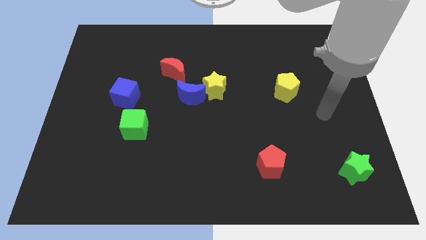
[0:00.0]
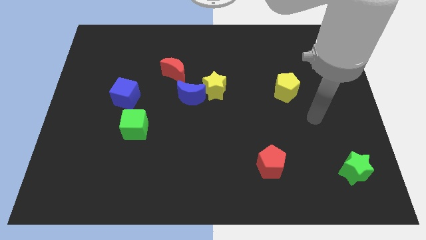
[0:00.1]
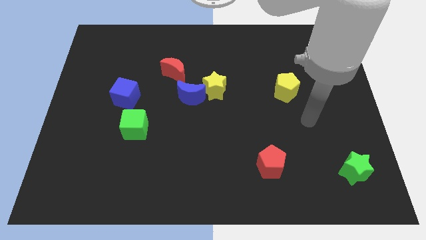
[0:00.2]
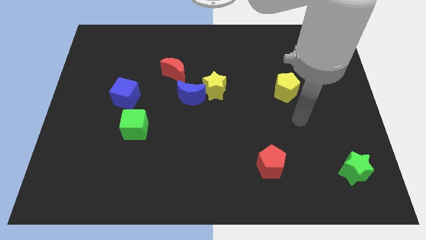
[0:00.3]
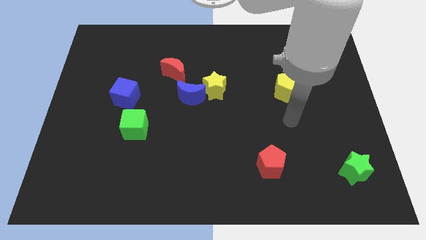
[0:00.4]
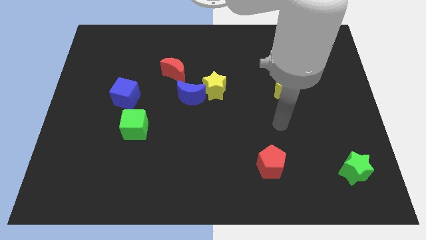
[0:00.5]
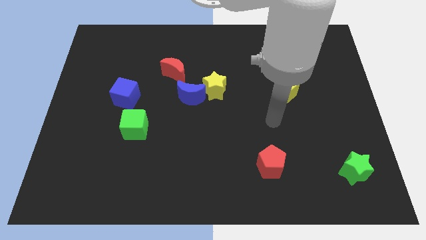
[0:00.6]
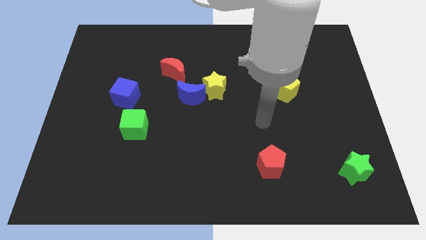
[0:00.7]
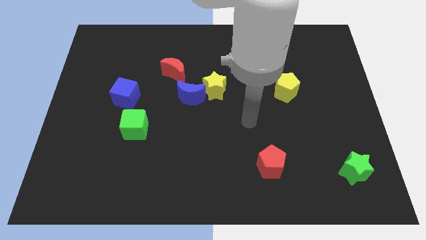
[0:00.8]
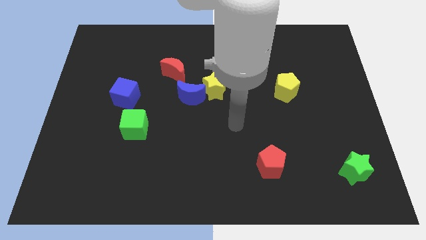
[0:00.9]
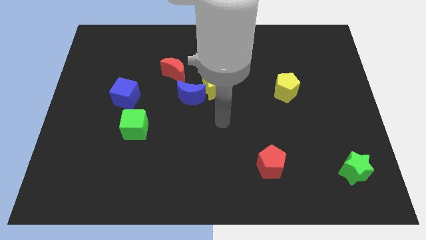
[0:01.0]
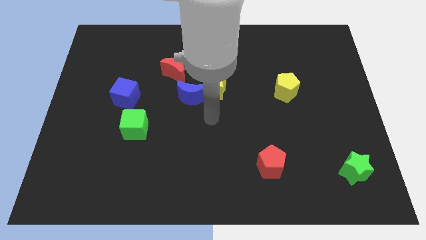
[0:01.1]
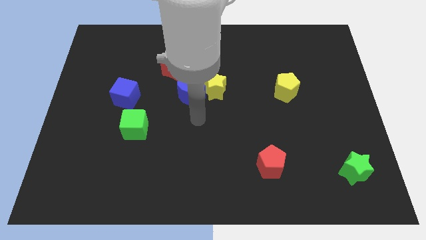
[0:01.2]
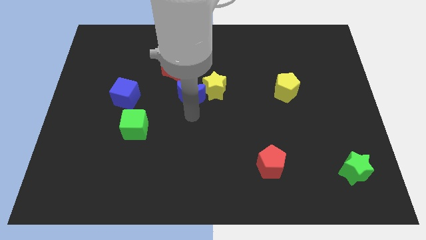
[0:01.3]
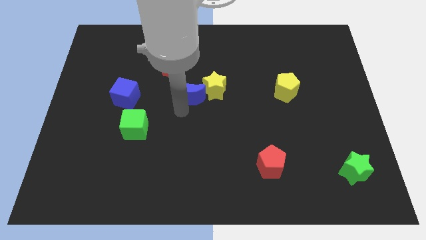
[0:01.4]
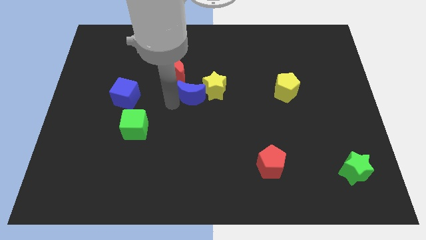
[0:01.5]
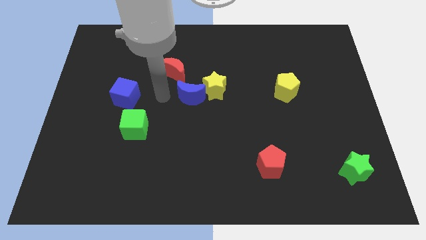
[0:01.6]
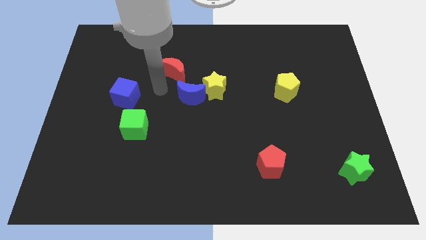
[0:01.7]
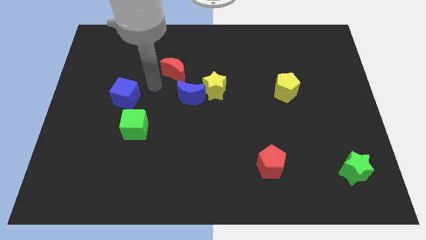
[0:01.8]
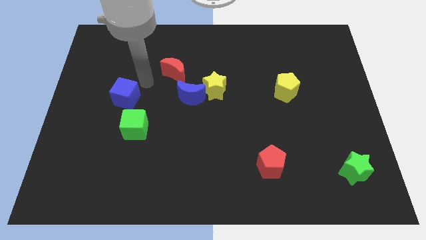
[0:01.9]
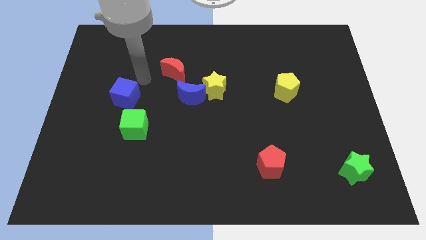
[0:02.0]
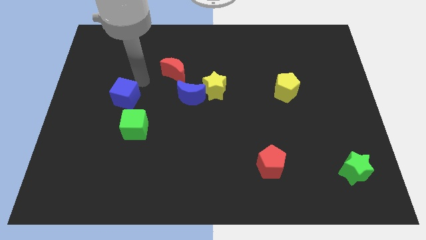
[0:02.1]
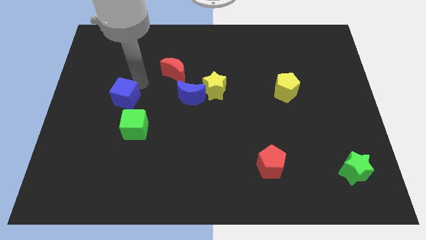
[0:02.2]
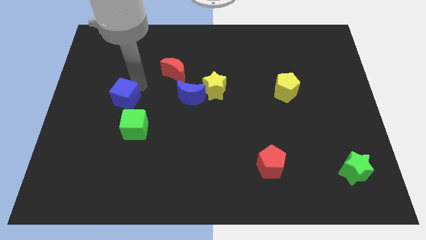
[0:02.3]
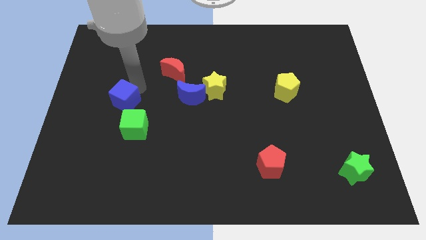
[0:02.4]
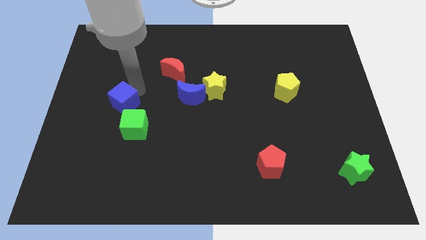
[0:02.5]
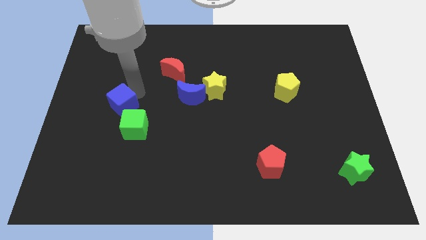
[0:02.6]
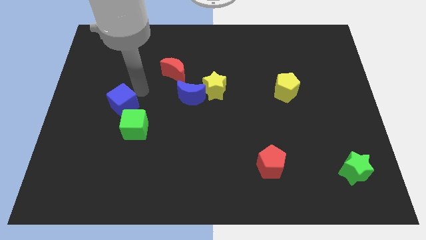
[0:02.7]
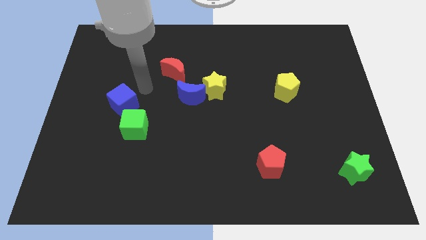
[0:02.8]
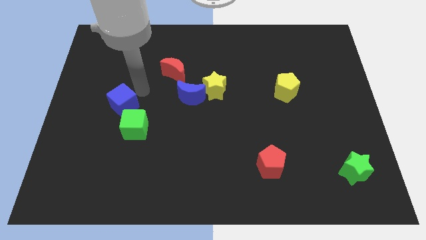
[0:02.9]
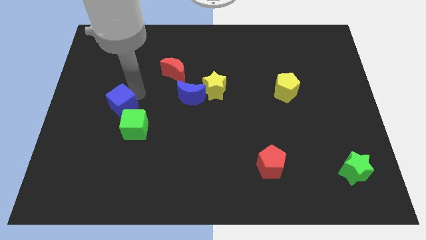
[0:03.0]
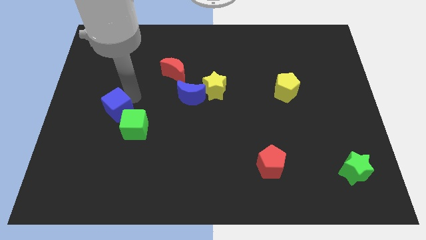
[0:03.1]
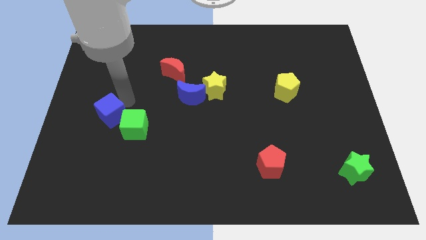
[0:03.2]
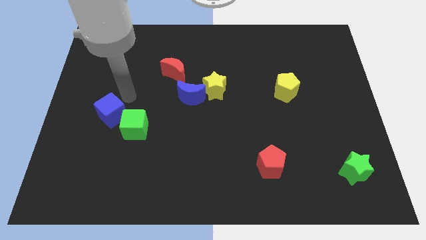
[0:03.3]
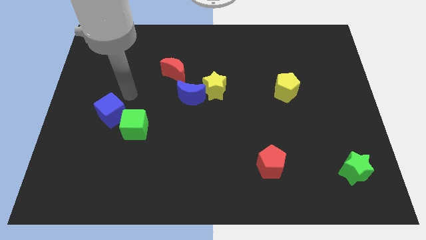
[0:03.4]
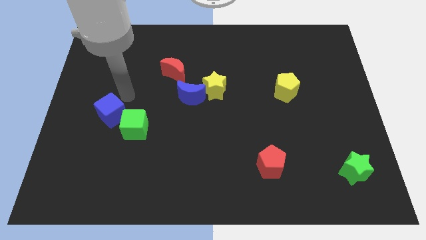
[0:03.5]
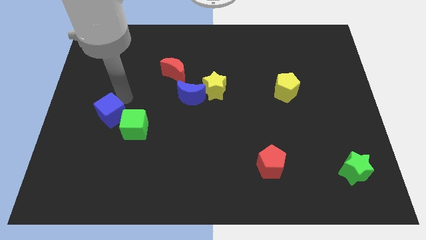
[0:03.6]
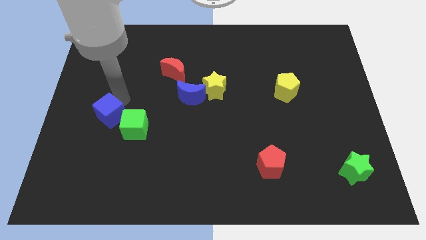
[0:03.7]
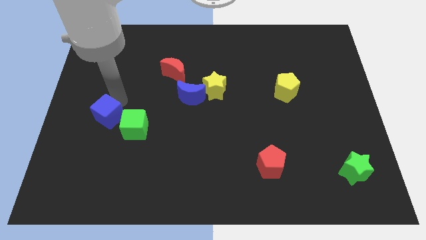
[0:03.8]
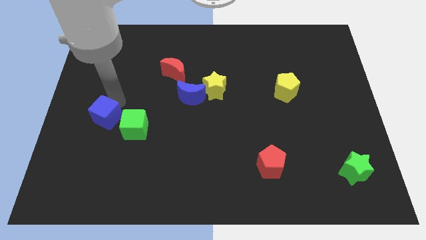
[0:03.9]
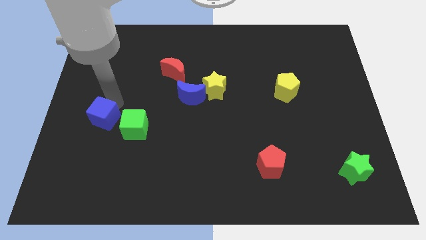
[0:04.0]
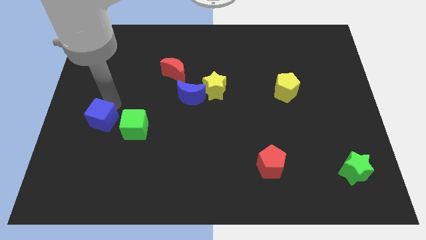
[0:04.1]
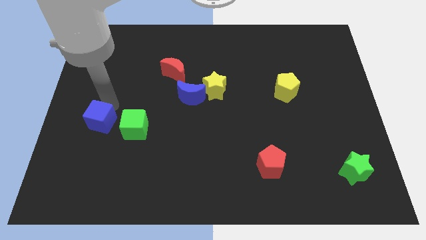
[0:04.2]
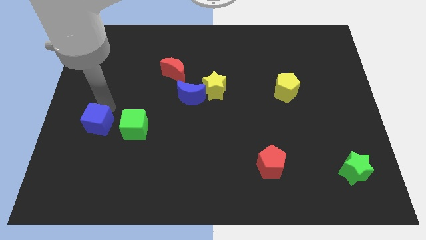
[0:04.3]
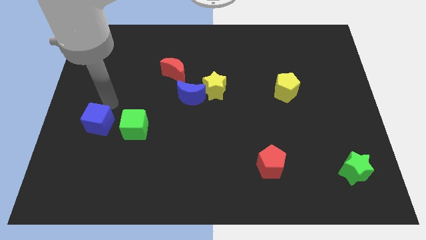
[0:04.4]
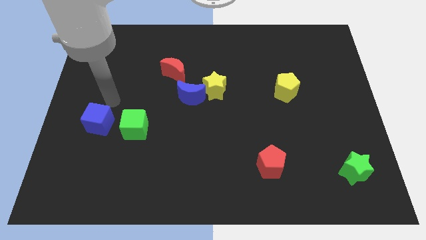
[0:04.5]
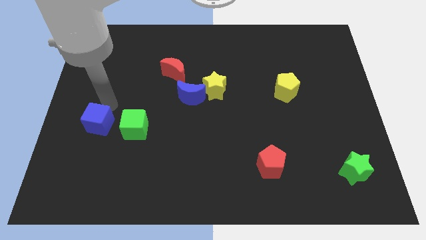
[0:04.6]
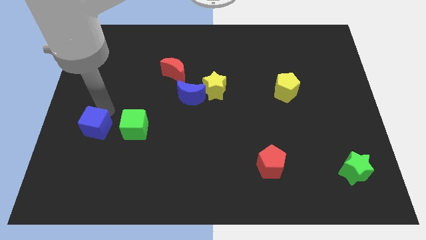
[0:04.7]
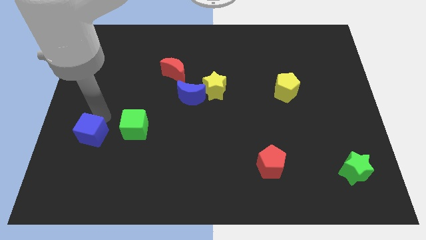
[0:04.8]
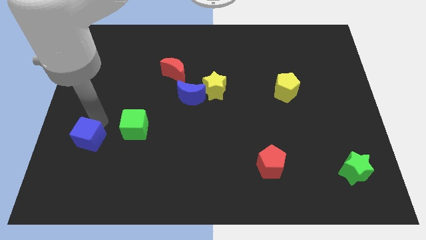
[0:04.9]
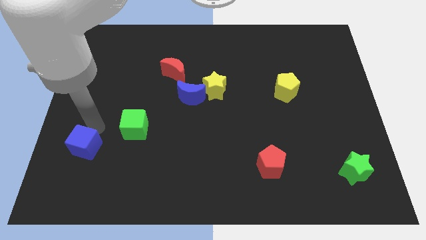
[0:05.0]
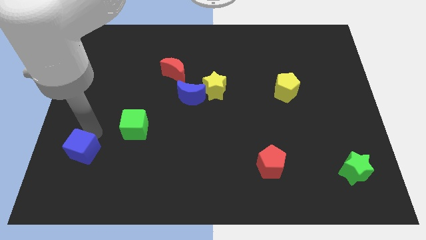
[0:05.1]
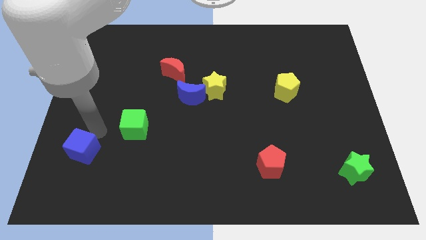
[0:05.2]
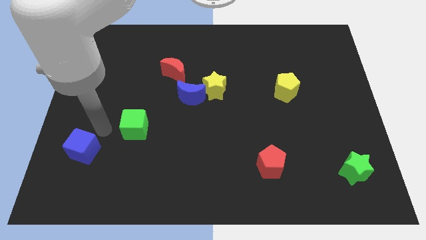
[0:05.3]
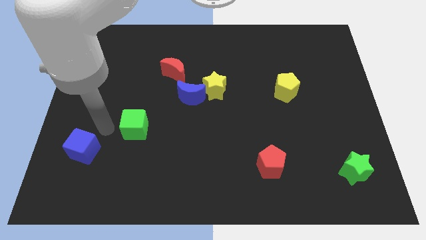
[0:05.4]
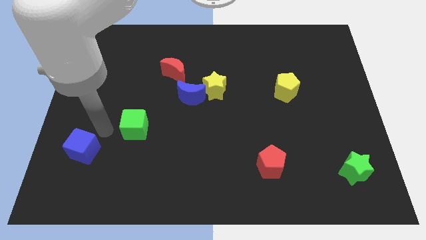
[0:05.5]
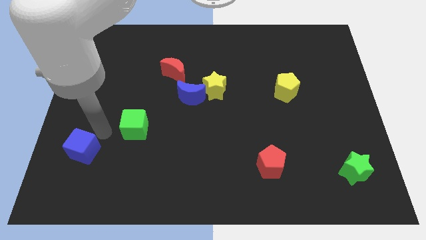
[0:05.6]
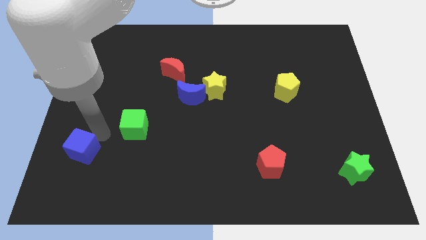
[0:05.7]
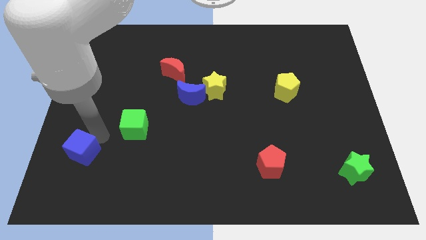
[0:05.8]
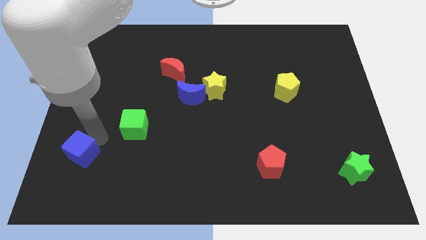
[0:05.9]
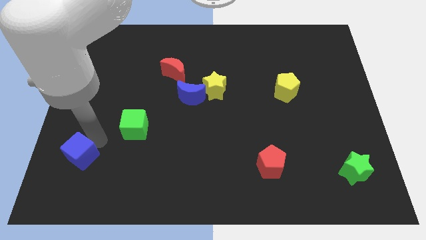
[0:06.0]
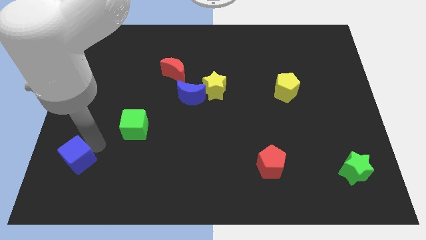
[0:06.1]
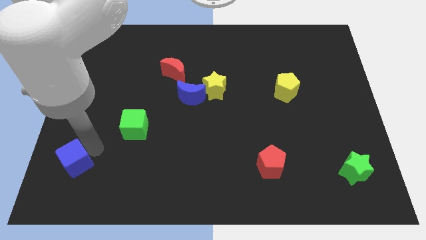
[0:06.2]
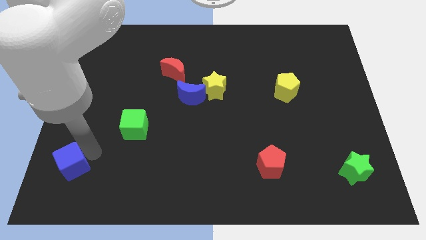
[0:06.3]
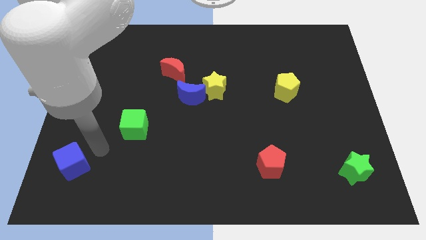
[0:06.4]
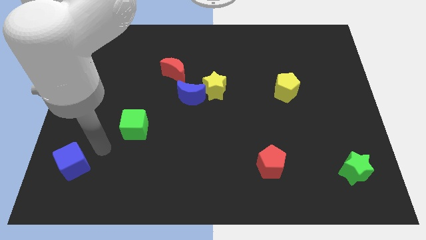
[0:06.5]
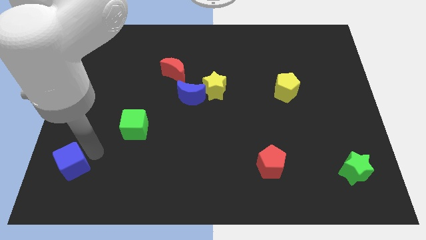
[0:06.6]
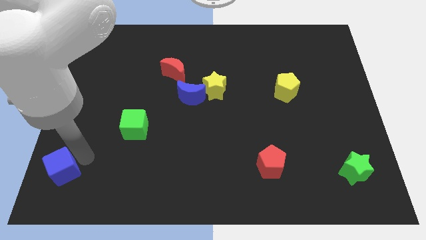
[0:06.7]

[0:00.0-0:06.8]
push the blue cube to the lower left corner
